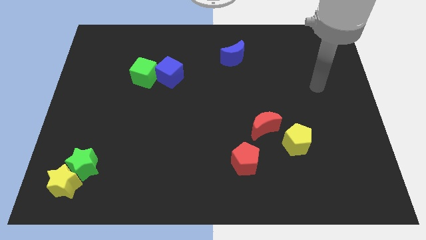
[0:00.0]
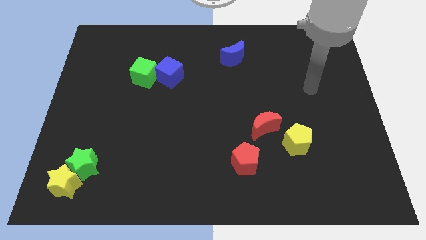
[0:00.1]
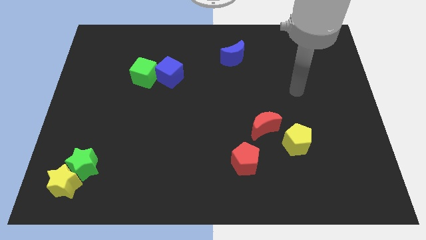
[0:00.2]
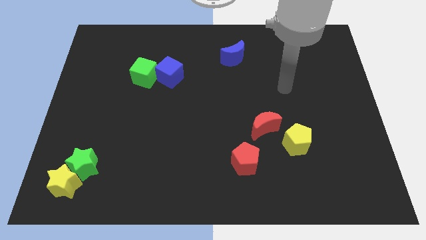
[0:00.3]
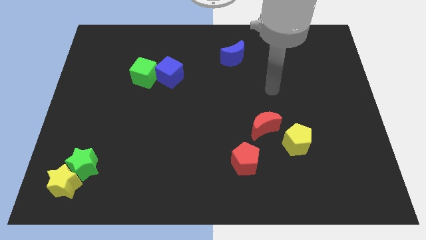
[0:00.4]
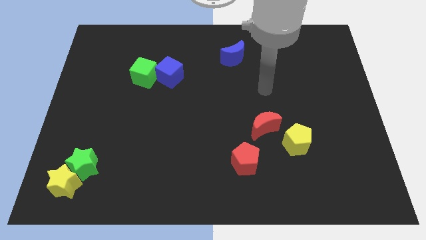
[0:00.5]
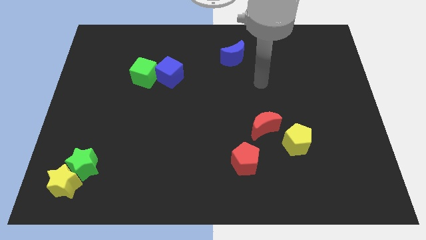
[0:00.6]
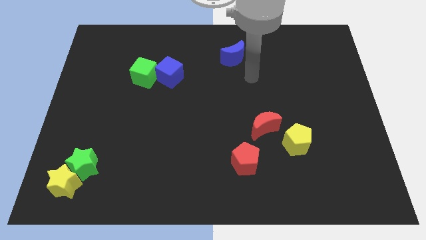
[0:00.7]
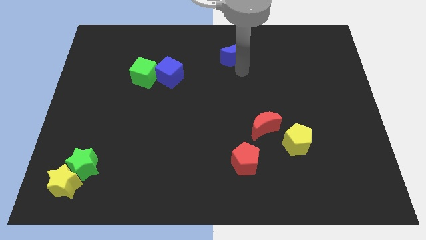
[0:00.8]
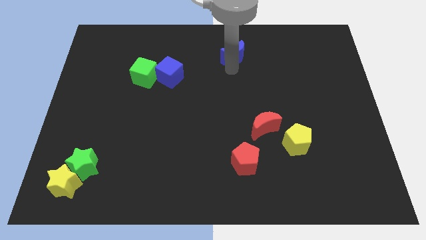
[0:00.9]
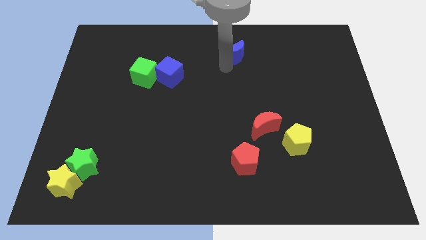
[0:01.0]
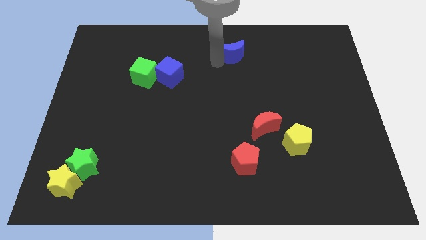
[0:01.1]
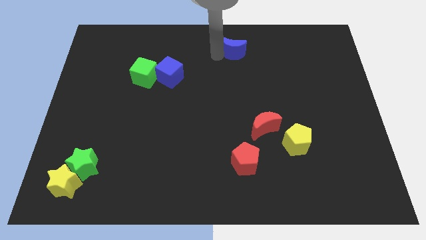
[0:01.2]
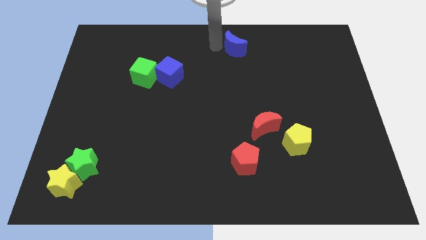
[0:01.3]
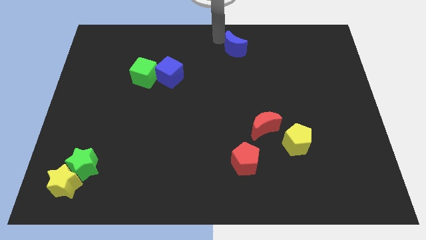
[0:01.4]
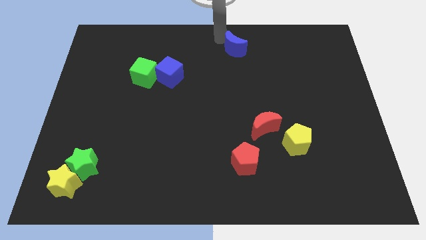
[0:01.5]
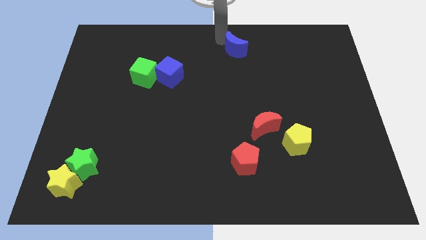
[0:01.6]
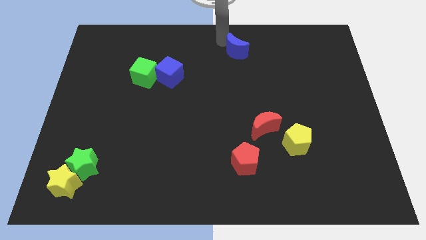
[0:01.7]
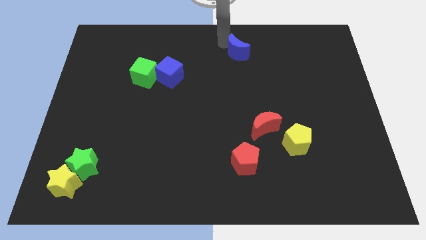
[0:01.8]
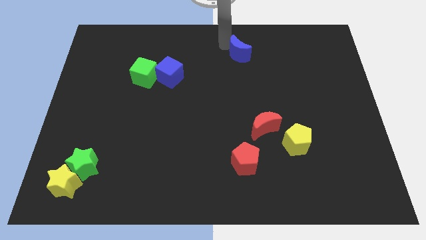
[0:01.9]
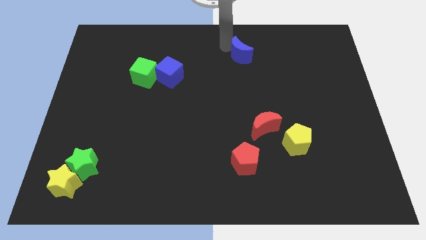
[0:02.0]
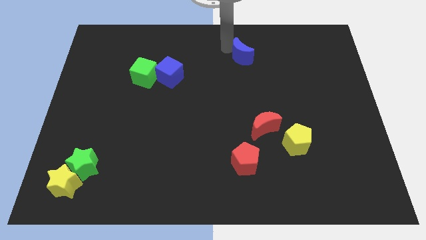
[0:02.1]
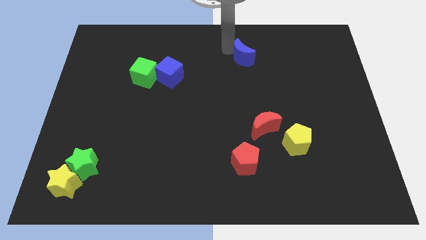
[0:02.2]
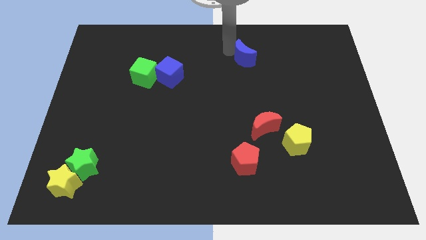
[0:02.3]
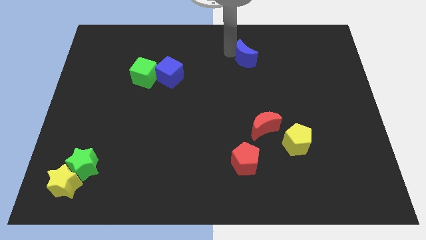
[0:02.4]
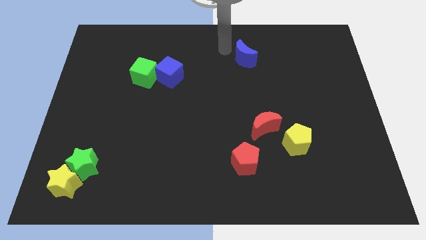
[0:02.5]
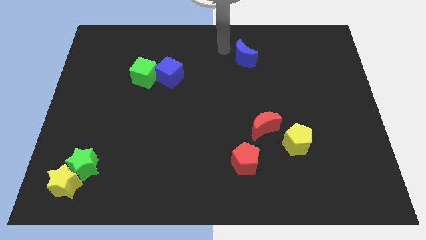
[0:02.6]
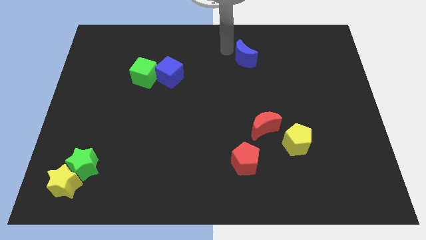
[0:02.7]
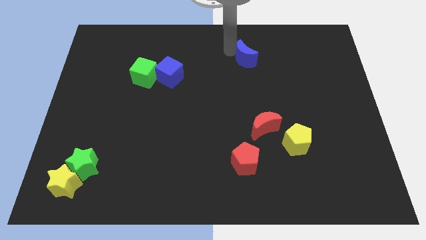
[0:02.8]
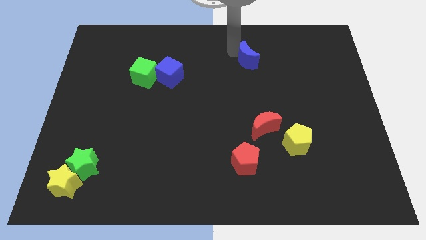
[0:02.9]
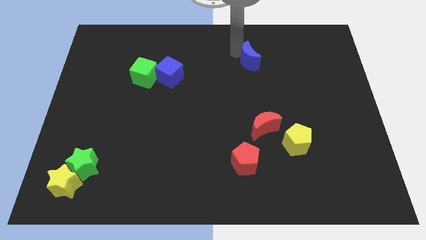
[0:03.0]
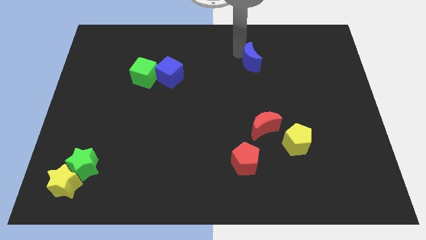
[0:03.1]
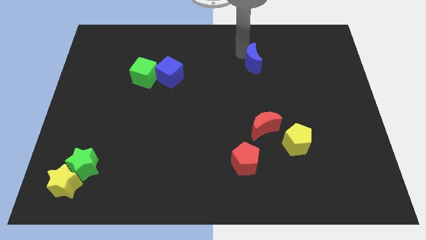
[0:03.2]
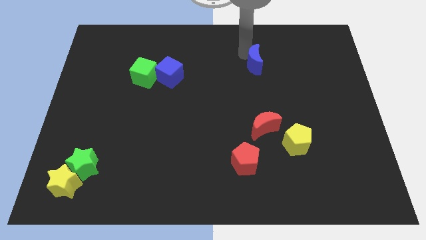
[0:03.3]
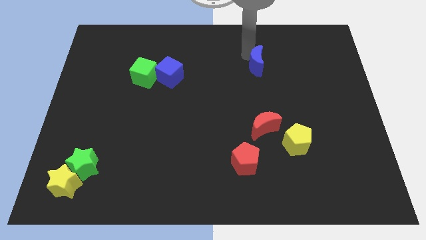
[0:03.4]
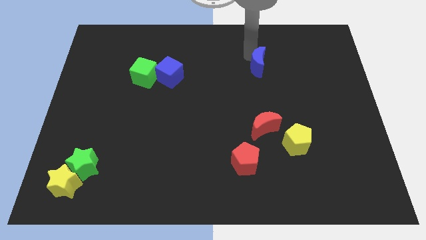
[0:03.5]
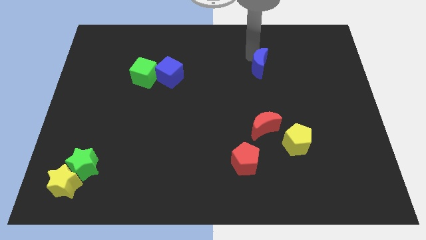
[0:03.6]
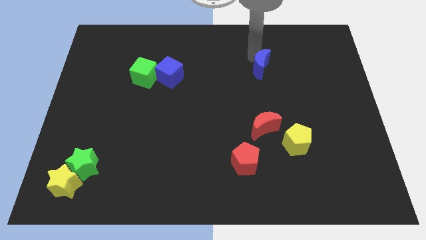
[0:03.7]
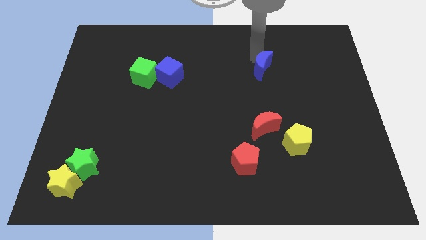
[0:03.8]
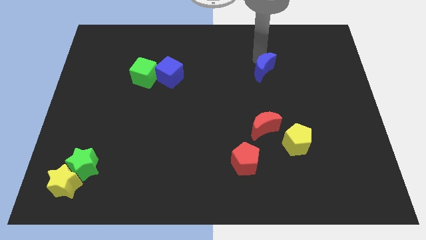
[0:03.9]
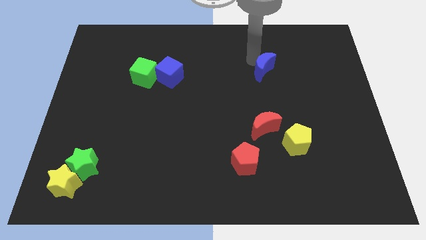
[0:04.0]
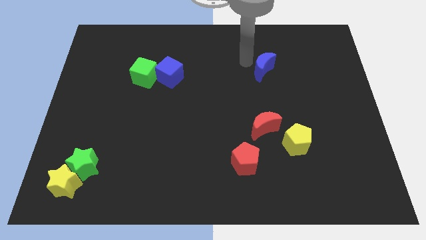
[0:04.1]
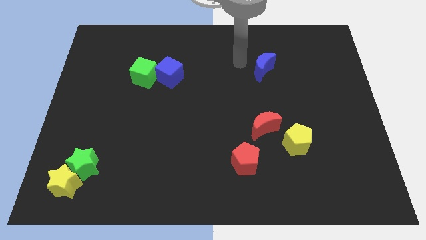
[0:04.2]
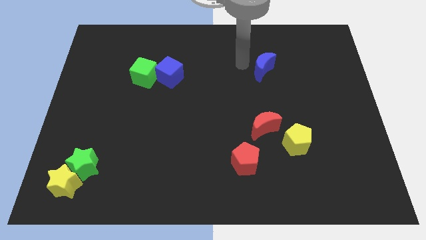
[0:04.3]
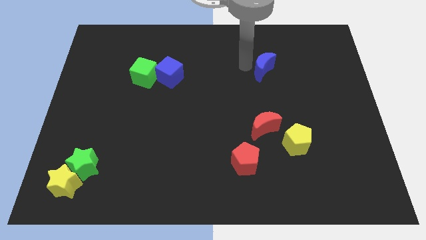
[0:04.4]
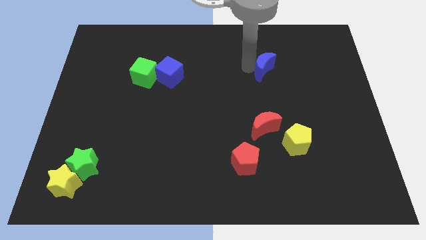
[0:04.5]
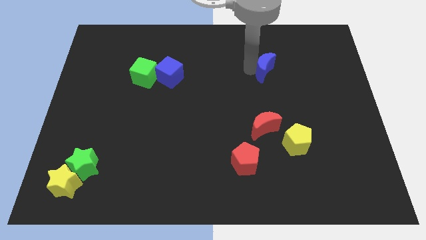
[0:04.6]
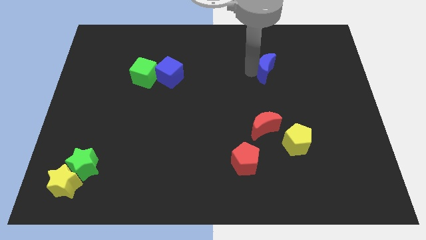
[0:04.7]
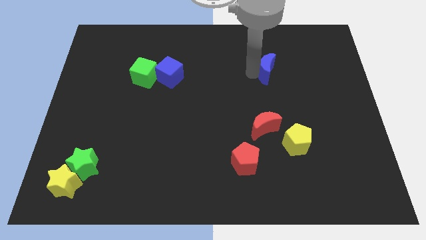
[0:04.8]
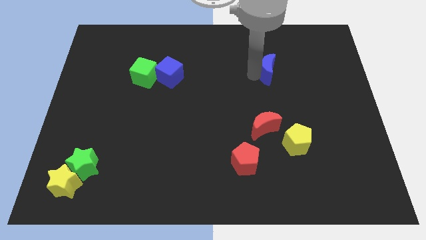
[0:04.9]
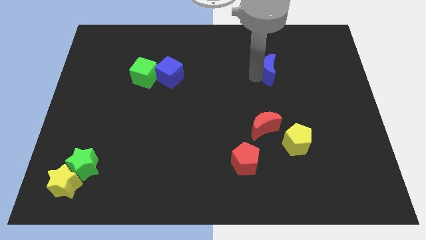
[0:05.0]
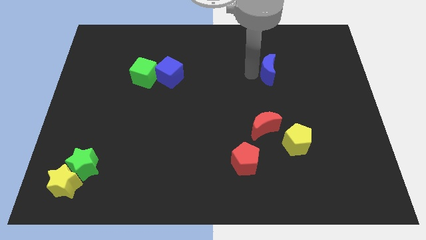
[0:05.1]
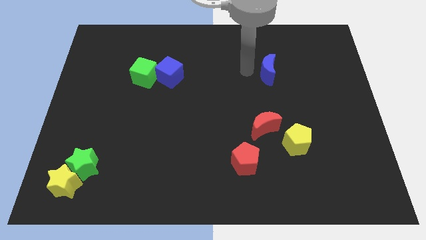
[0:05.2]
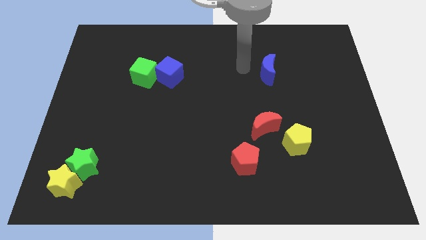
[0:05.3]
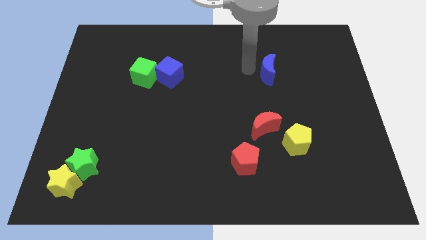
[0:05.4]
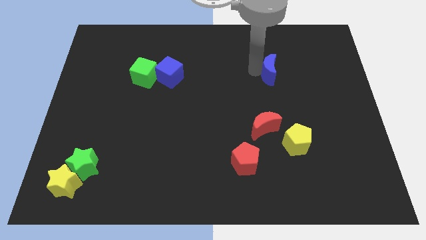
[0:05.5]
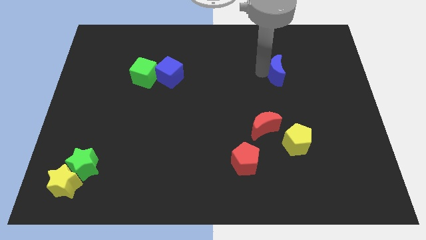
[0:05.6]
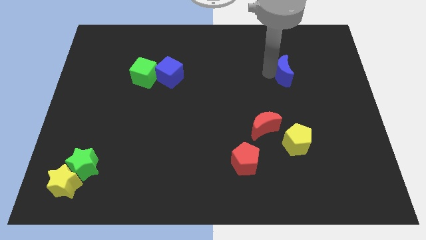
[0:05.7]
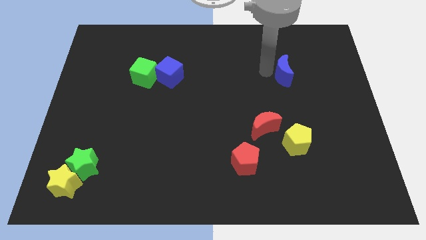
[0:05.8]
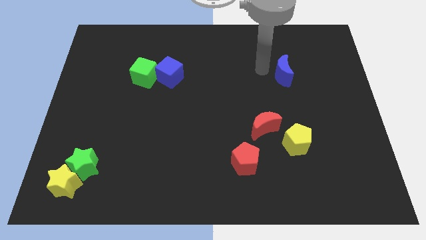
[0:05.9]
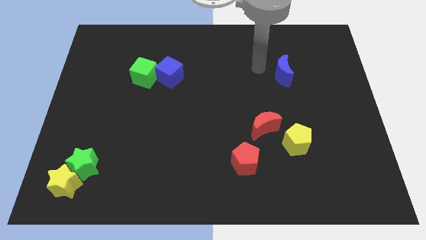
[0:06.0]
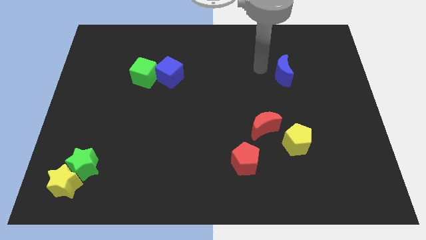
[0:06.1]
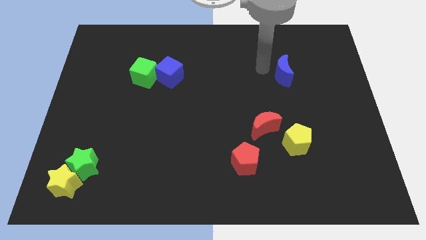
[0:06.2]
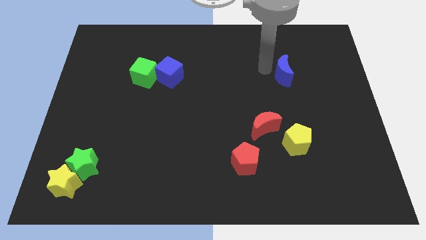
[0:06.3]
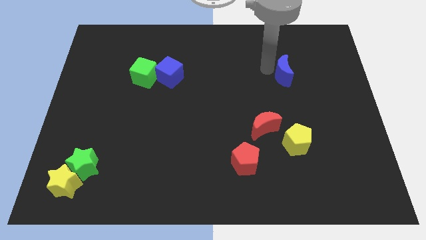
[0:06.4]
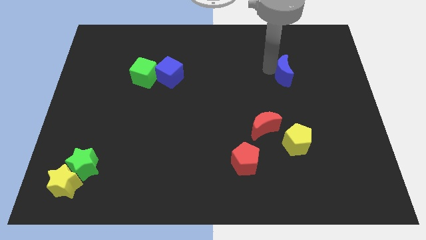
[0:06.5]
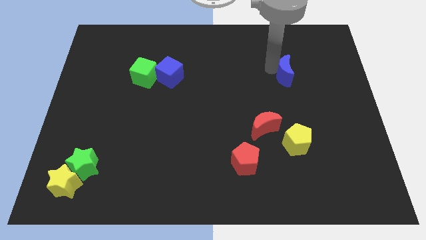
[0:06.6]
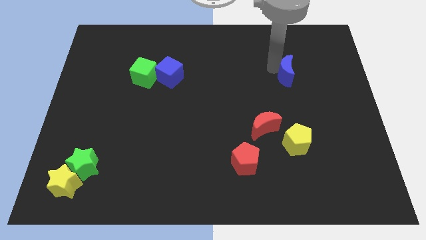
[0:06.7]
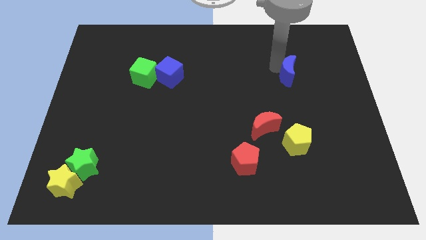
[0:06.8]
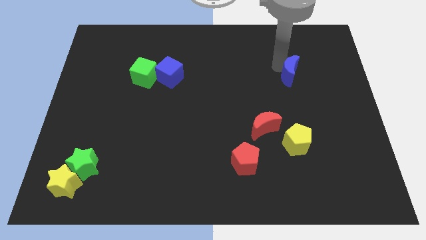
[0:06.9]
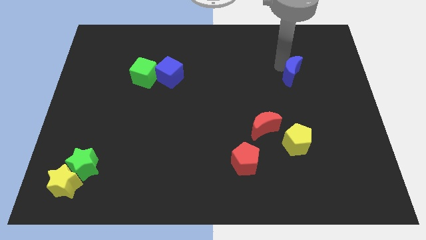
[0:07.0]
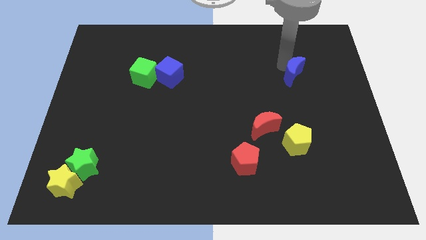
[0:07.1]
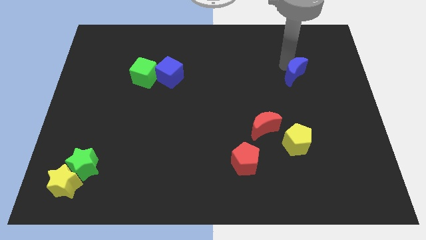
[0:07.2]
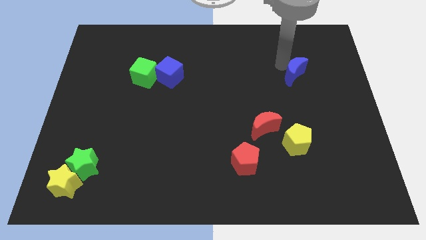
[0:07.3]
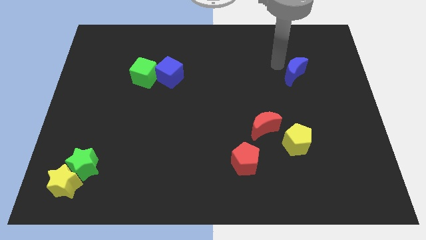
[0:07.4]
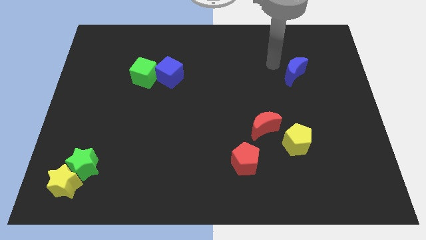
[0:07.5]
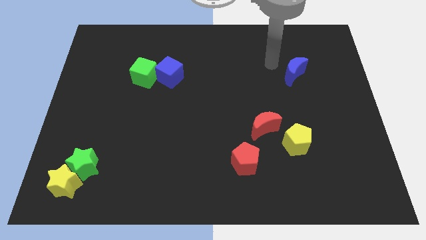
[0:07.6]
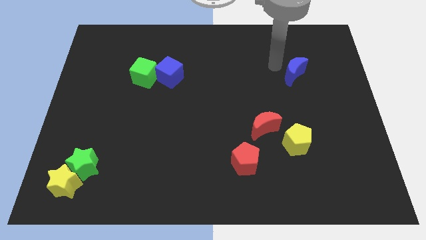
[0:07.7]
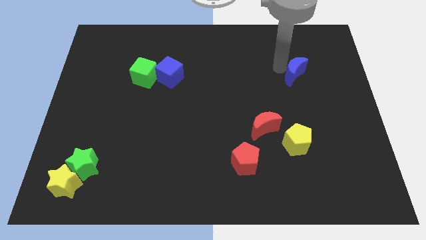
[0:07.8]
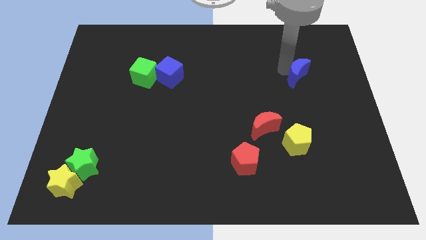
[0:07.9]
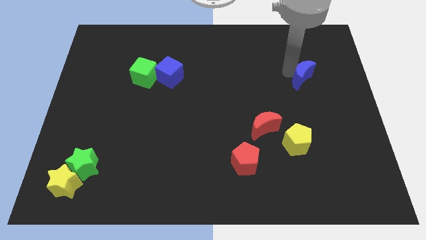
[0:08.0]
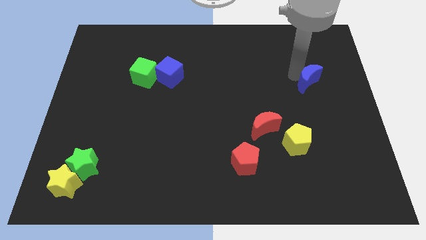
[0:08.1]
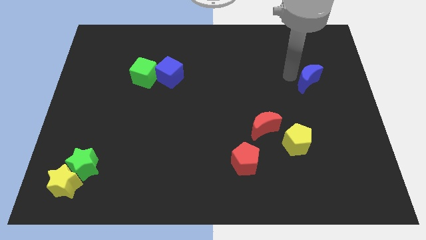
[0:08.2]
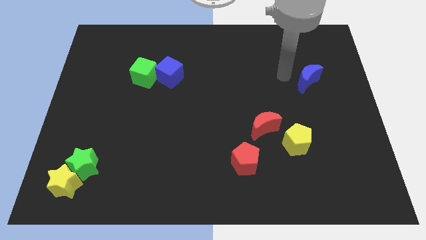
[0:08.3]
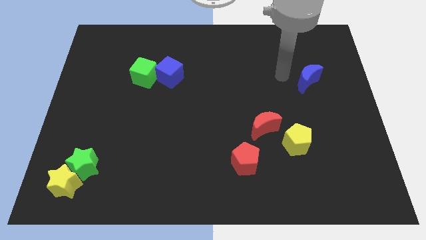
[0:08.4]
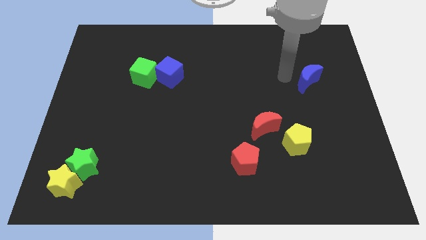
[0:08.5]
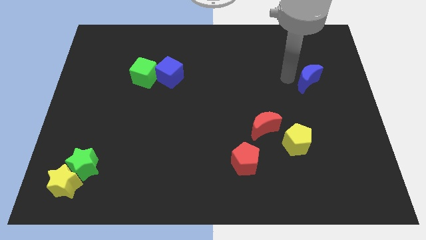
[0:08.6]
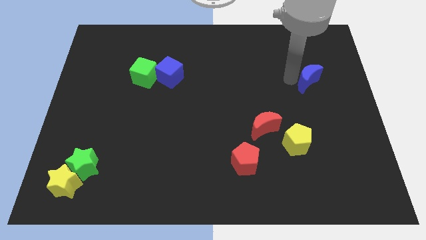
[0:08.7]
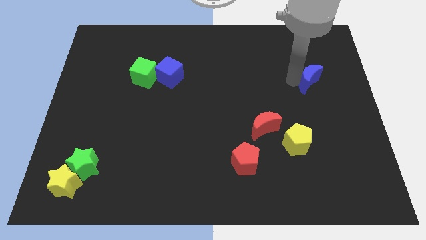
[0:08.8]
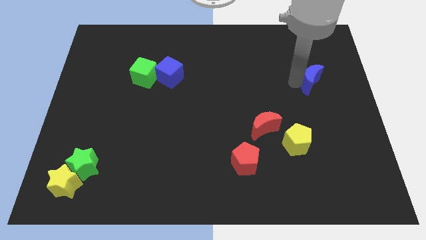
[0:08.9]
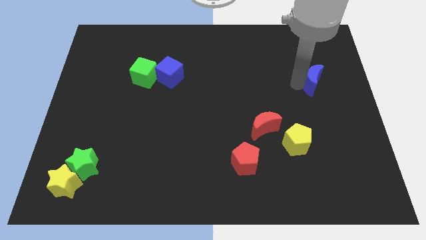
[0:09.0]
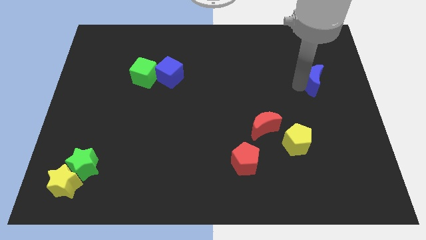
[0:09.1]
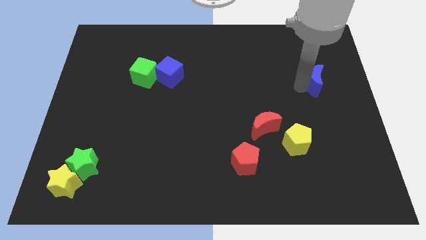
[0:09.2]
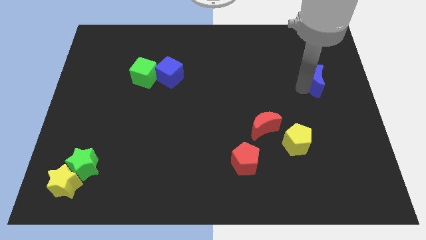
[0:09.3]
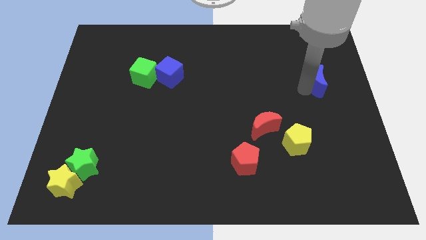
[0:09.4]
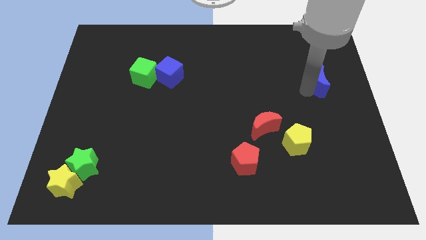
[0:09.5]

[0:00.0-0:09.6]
put the blue moon to the center right
